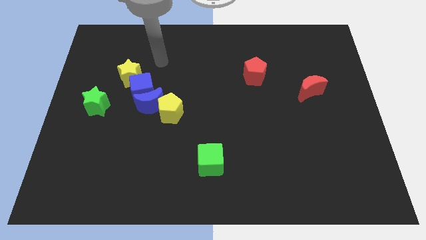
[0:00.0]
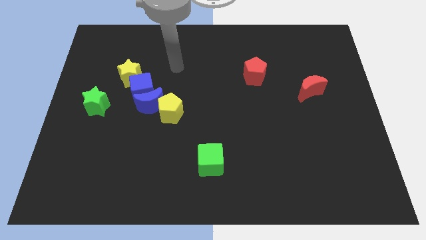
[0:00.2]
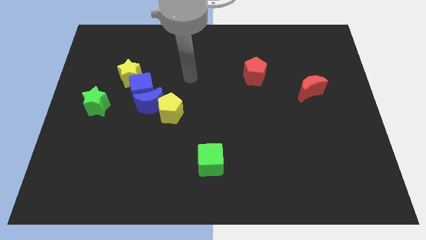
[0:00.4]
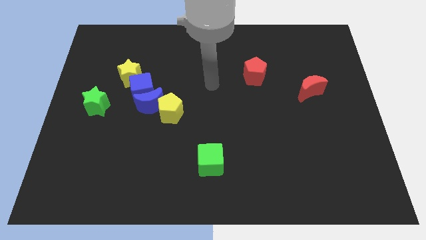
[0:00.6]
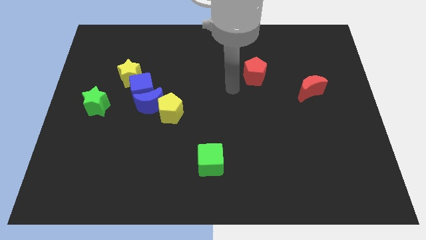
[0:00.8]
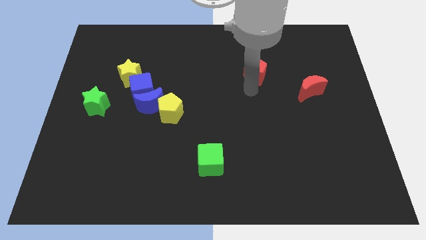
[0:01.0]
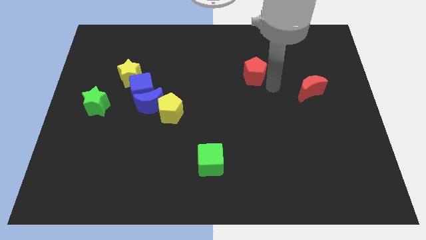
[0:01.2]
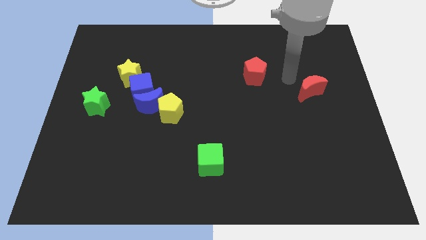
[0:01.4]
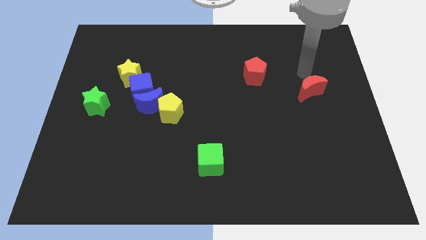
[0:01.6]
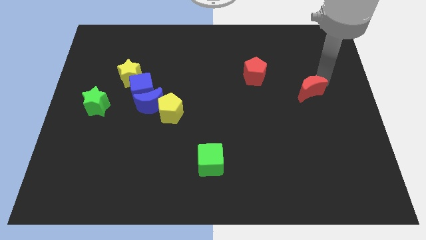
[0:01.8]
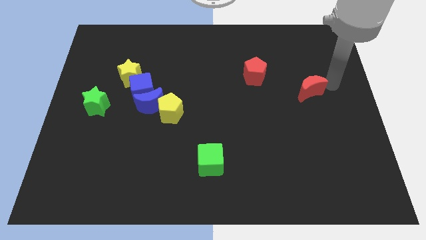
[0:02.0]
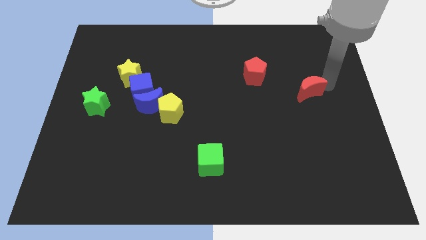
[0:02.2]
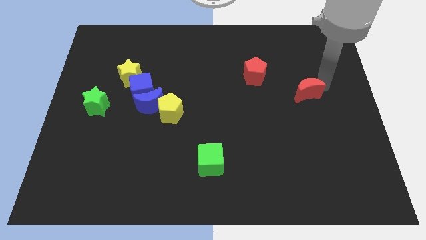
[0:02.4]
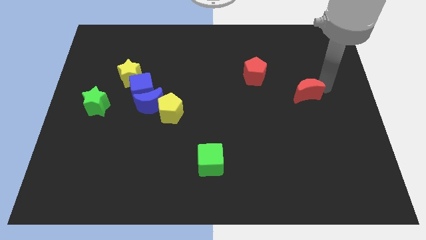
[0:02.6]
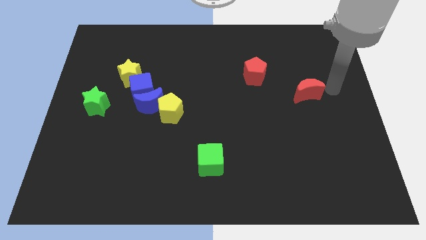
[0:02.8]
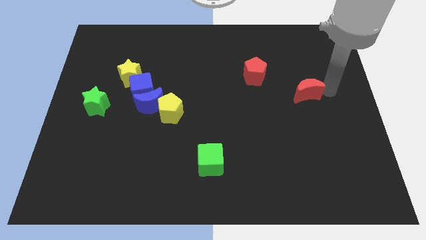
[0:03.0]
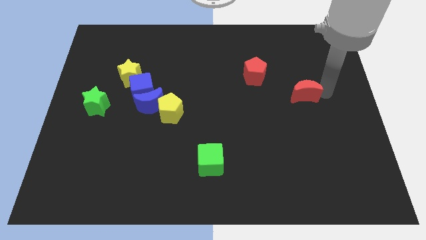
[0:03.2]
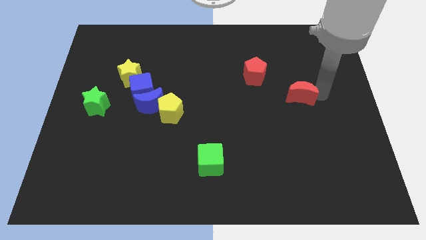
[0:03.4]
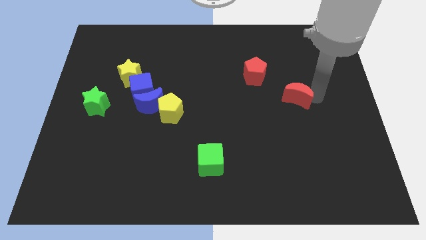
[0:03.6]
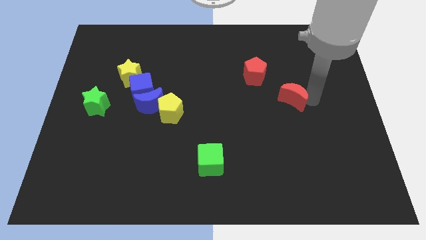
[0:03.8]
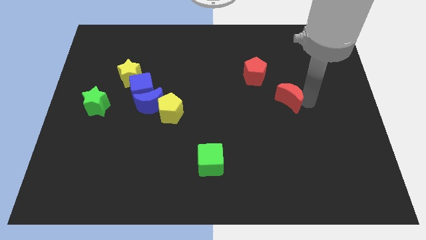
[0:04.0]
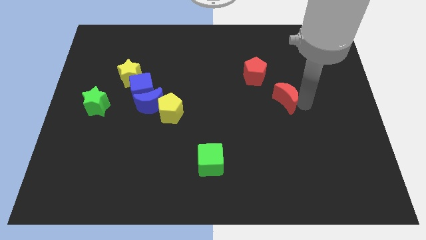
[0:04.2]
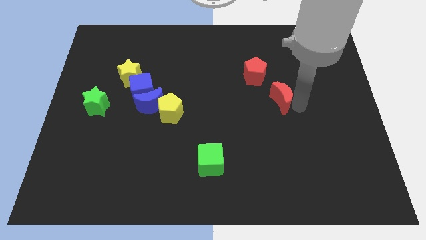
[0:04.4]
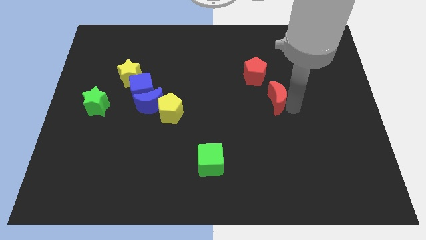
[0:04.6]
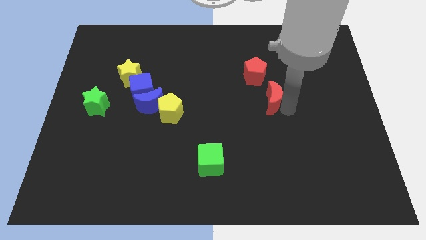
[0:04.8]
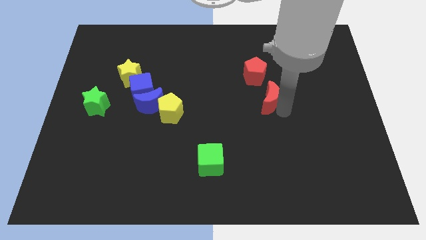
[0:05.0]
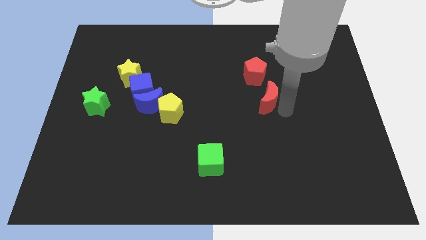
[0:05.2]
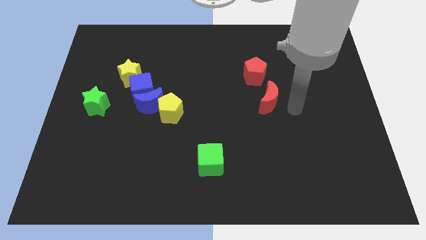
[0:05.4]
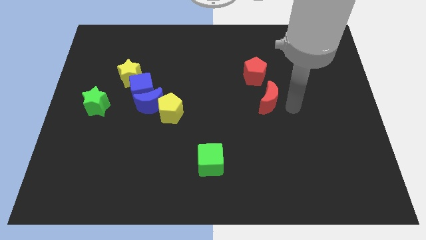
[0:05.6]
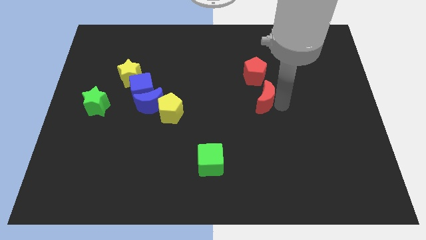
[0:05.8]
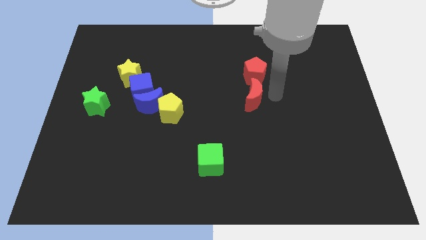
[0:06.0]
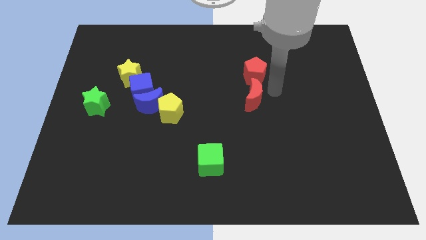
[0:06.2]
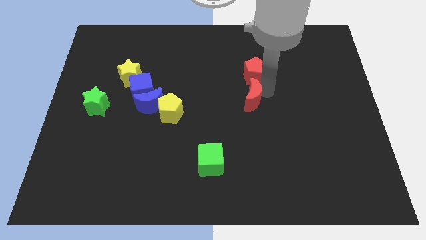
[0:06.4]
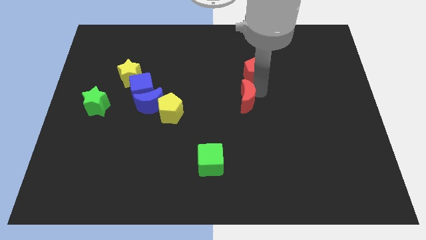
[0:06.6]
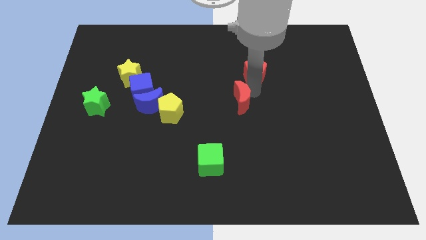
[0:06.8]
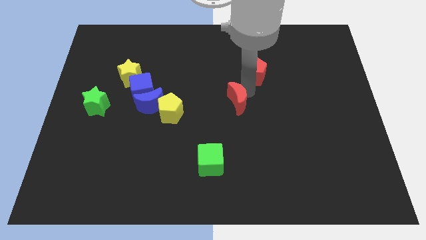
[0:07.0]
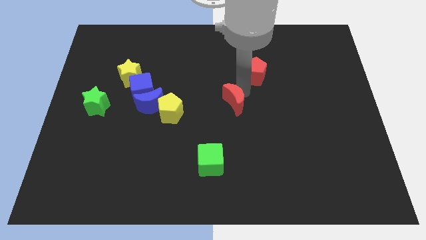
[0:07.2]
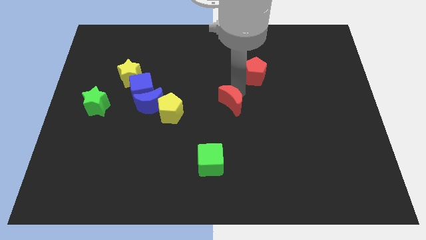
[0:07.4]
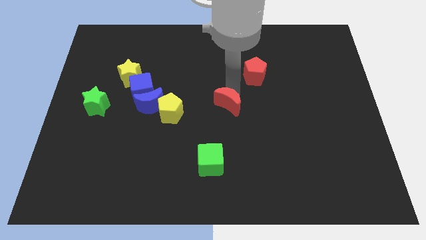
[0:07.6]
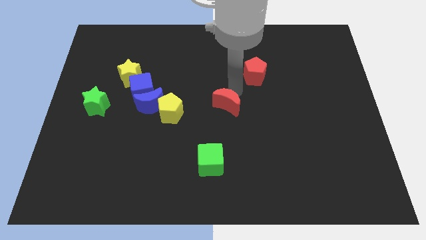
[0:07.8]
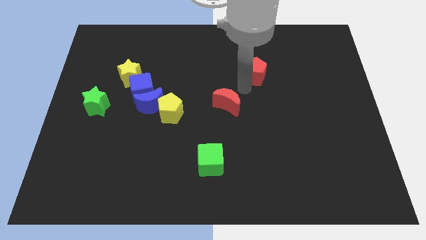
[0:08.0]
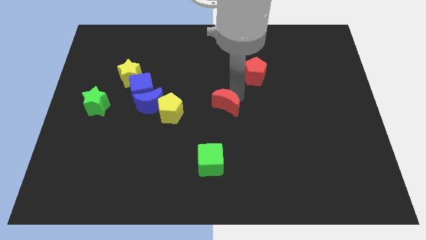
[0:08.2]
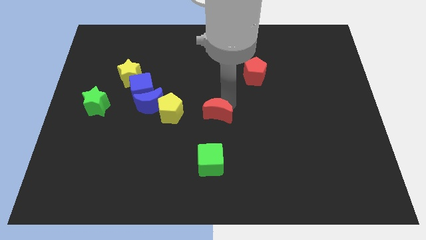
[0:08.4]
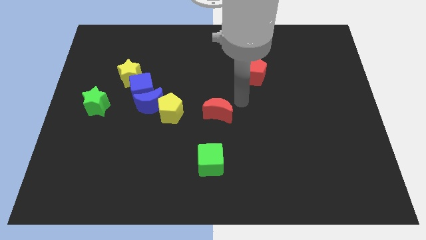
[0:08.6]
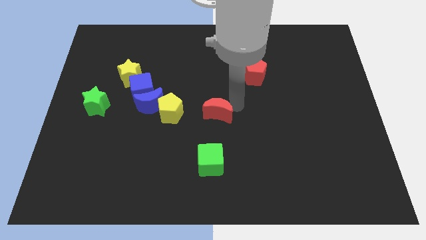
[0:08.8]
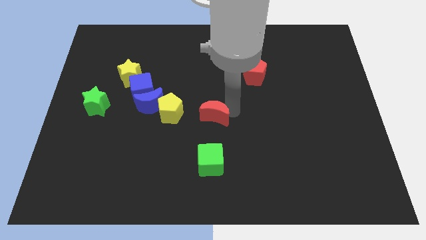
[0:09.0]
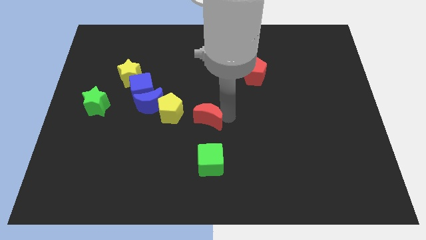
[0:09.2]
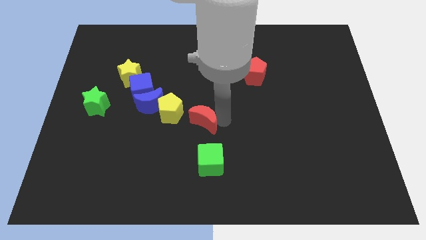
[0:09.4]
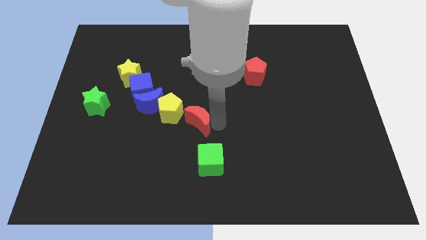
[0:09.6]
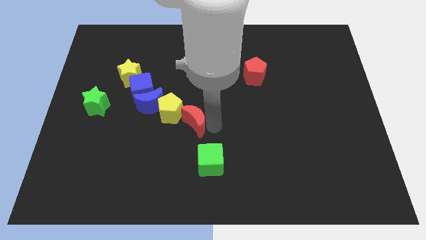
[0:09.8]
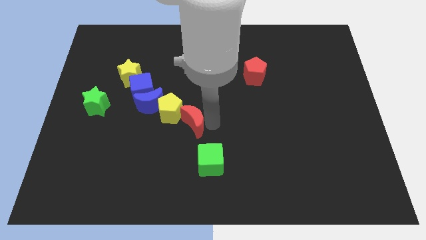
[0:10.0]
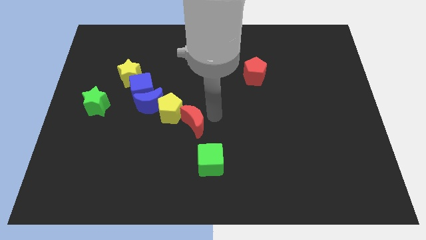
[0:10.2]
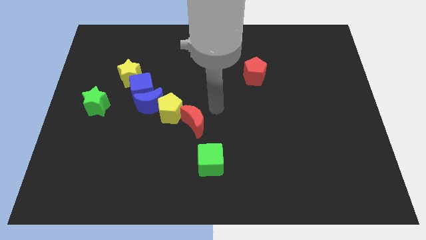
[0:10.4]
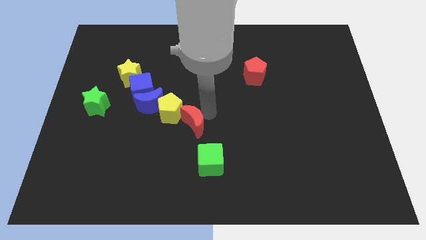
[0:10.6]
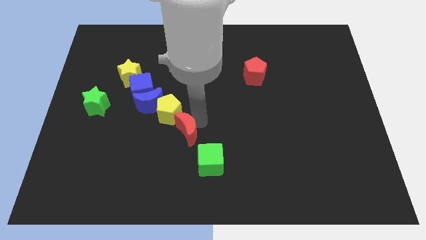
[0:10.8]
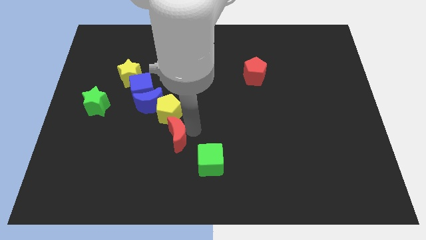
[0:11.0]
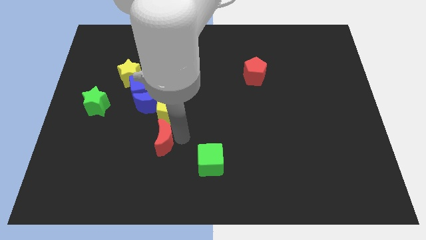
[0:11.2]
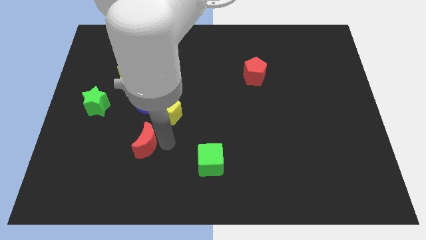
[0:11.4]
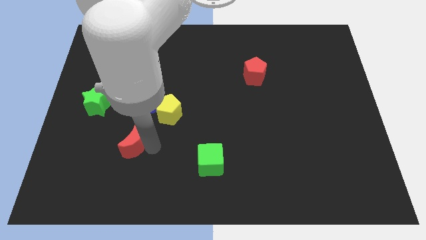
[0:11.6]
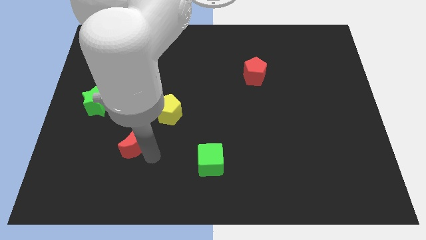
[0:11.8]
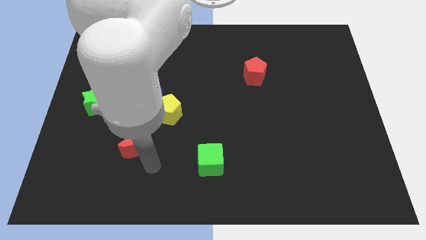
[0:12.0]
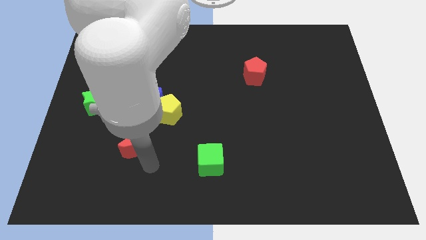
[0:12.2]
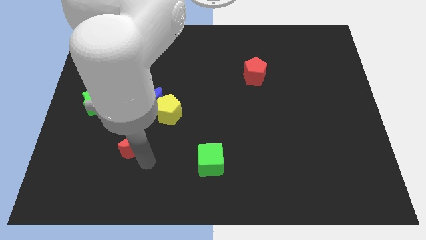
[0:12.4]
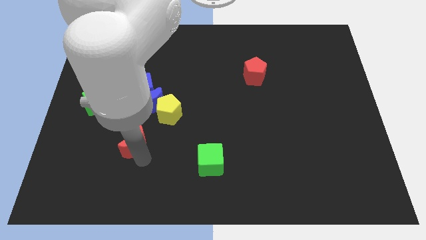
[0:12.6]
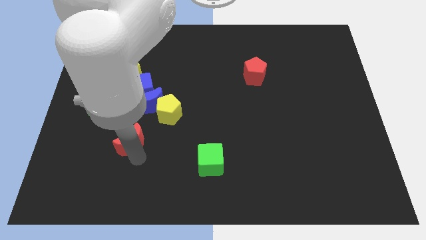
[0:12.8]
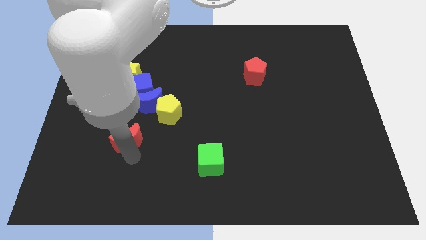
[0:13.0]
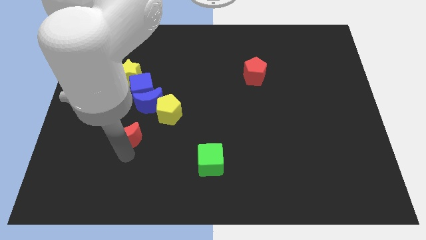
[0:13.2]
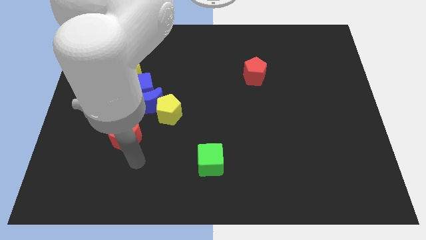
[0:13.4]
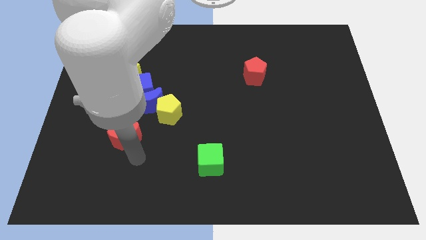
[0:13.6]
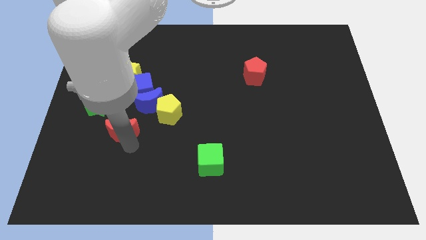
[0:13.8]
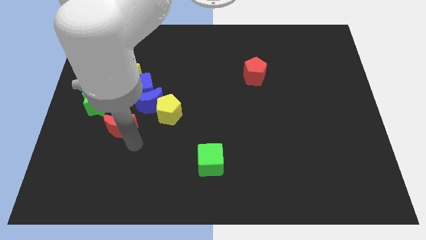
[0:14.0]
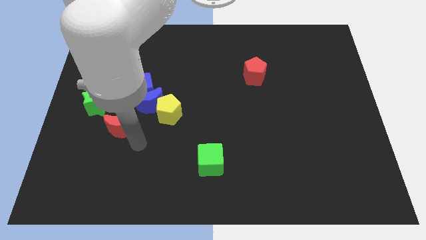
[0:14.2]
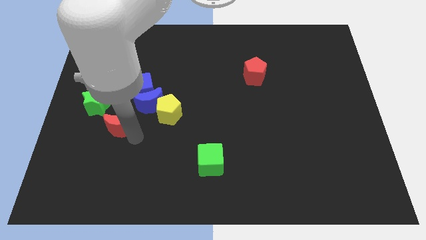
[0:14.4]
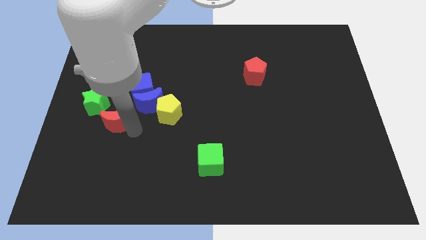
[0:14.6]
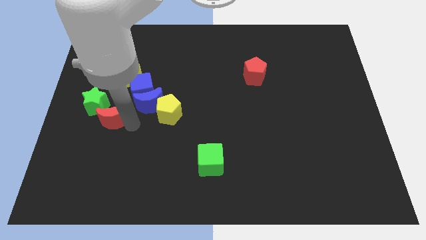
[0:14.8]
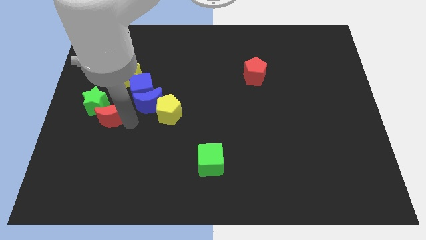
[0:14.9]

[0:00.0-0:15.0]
slide the red moon next to the green star

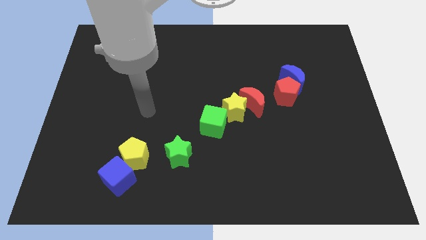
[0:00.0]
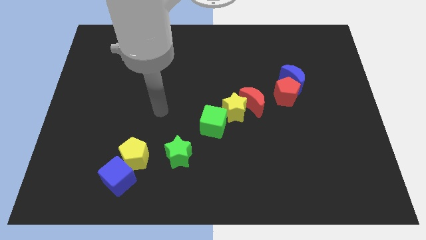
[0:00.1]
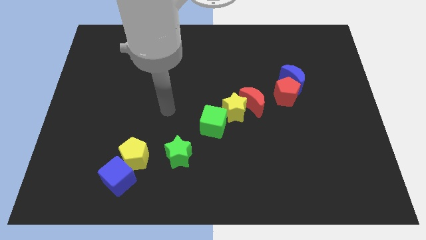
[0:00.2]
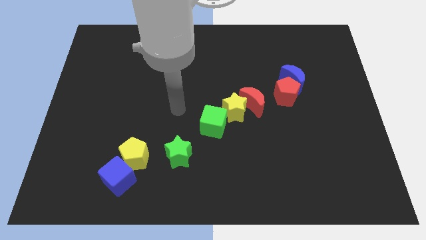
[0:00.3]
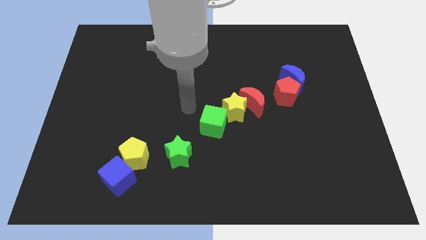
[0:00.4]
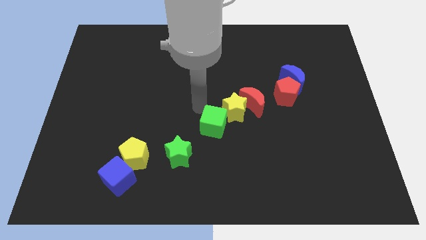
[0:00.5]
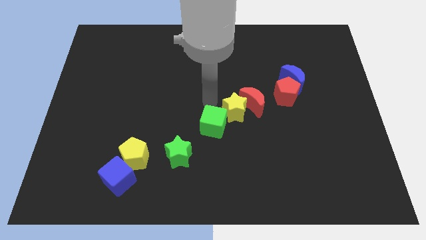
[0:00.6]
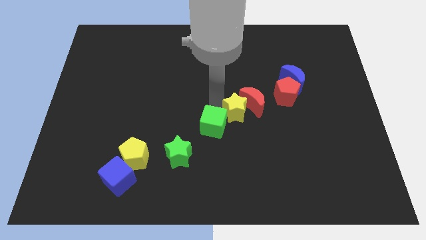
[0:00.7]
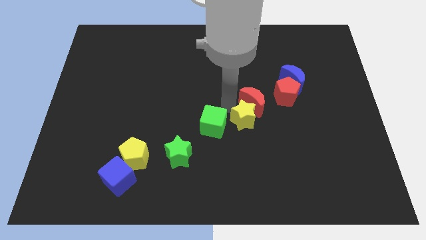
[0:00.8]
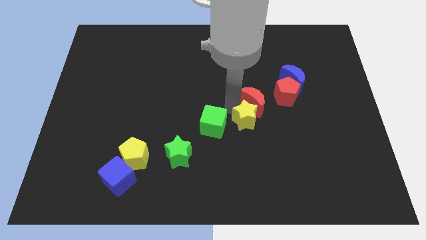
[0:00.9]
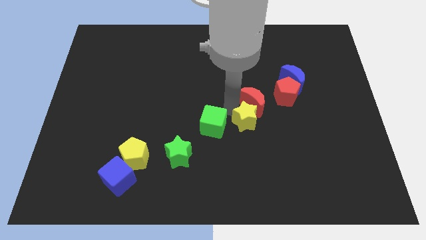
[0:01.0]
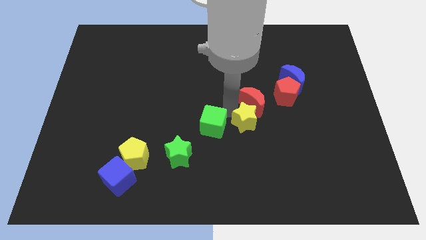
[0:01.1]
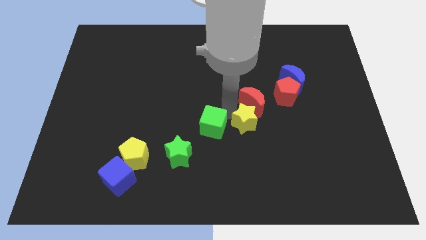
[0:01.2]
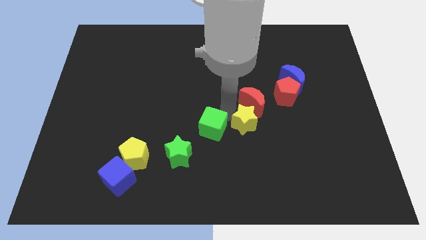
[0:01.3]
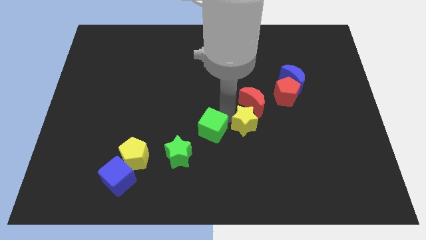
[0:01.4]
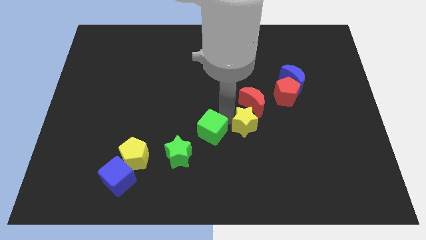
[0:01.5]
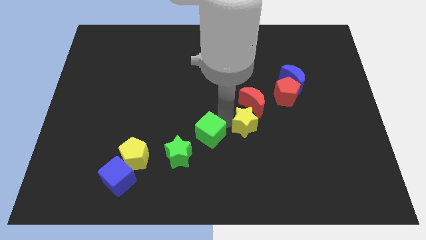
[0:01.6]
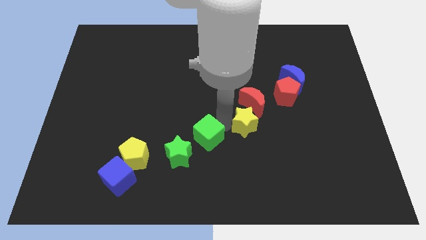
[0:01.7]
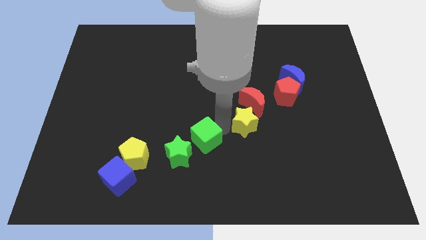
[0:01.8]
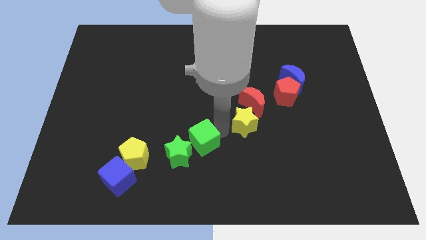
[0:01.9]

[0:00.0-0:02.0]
put the green cube close to the green star
